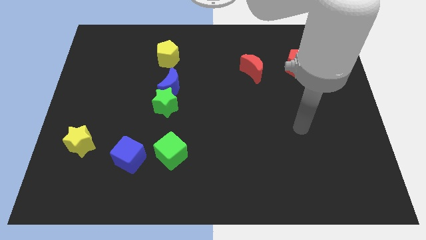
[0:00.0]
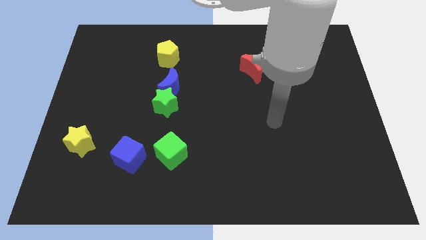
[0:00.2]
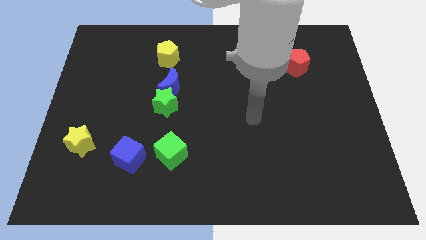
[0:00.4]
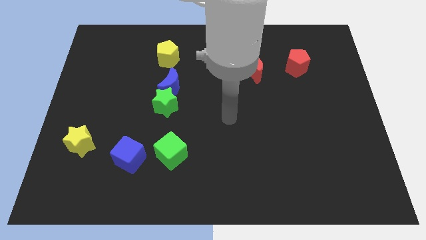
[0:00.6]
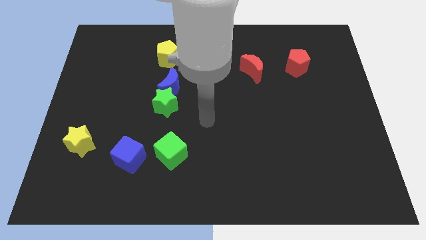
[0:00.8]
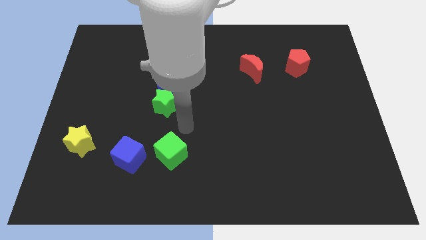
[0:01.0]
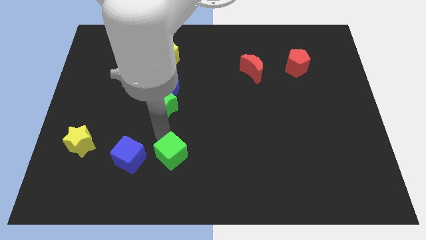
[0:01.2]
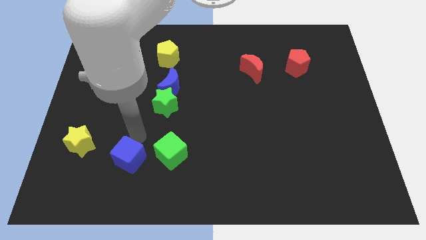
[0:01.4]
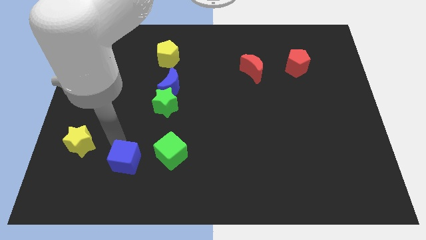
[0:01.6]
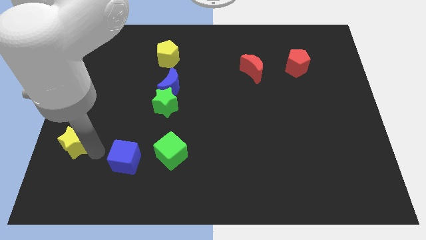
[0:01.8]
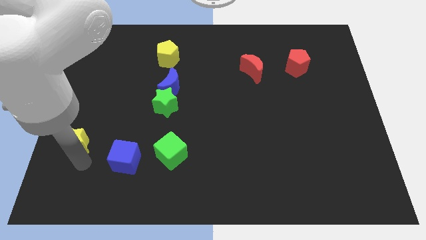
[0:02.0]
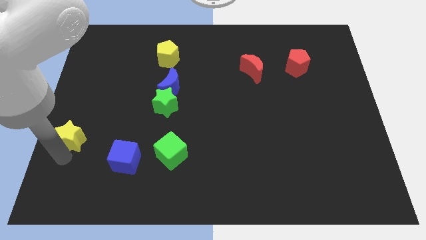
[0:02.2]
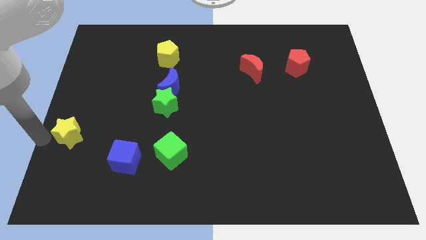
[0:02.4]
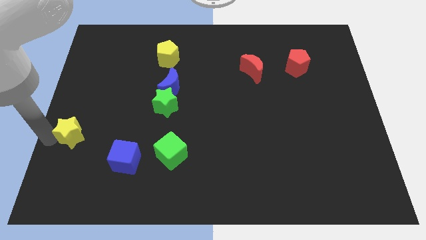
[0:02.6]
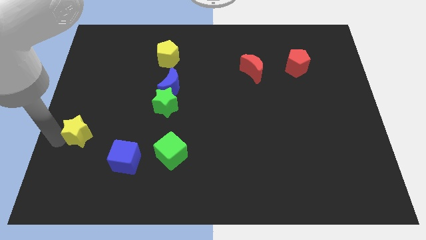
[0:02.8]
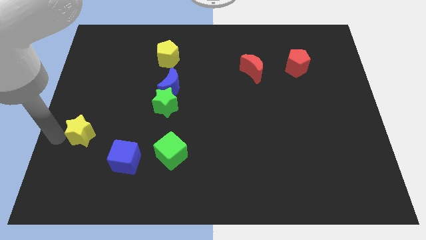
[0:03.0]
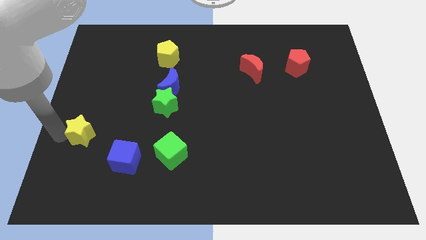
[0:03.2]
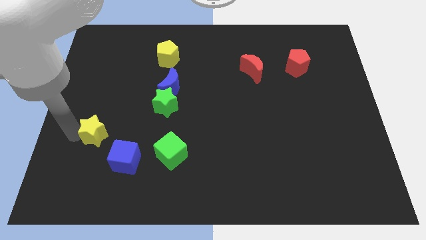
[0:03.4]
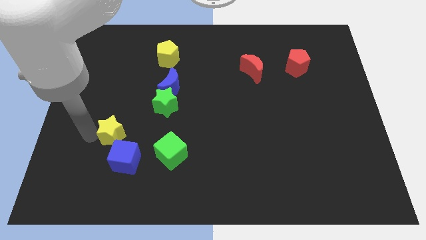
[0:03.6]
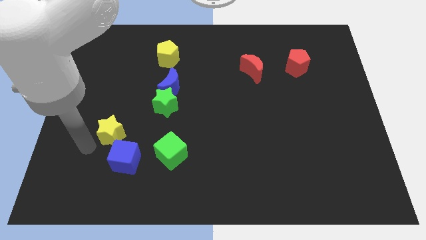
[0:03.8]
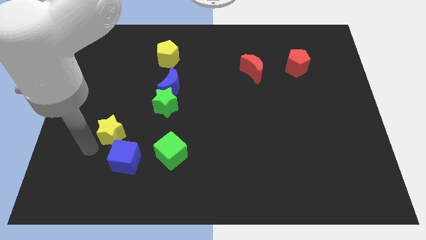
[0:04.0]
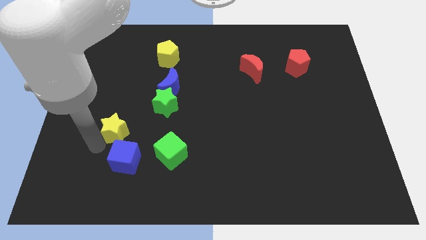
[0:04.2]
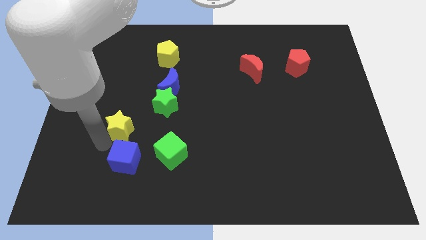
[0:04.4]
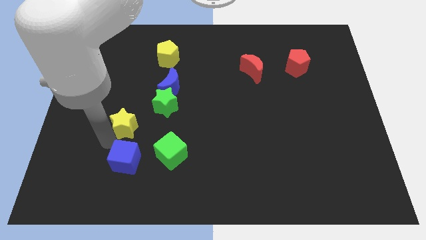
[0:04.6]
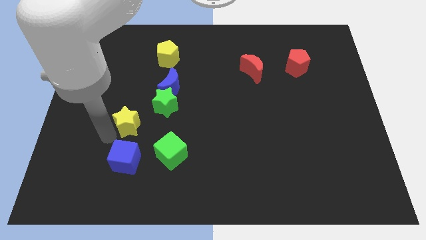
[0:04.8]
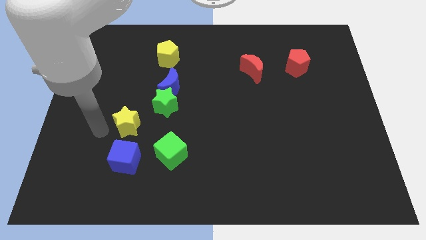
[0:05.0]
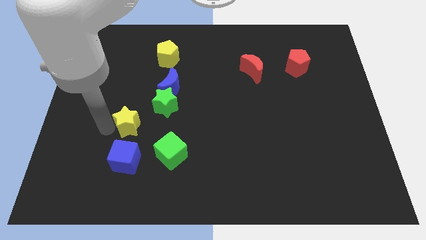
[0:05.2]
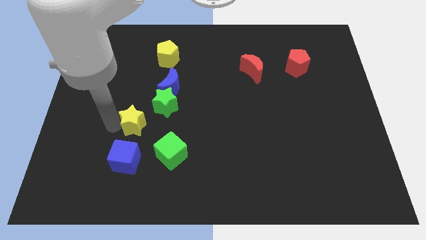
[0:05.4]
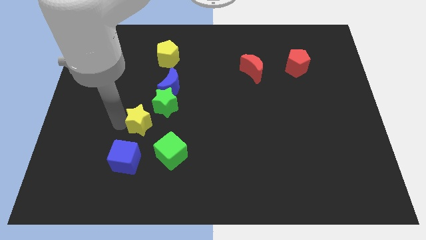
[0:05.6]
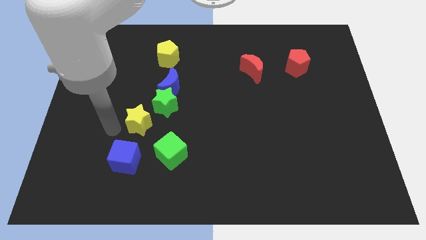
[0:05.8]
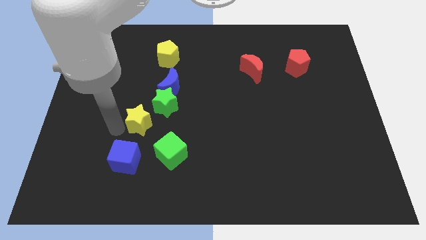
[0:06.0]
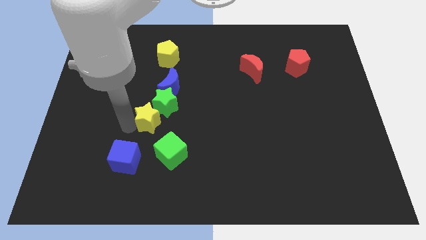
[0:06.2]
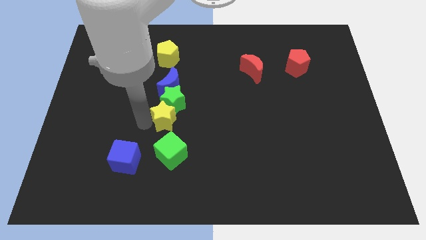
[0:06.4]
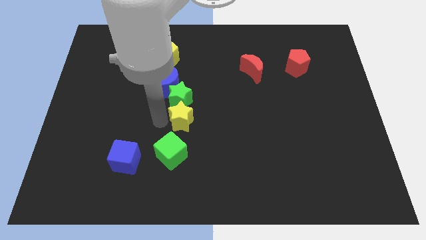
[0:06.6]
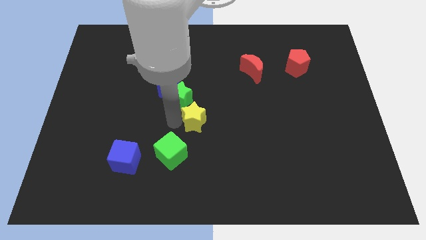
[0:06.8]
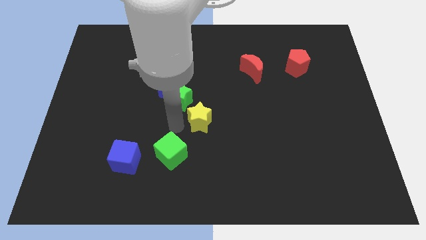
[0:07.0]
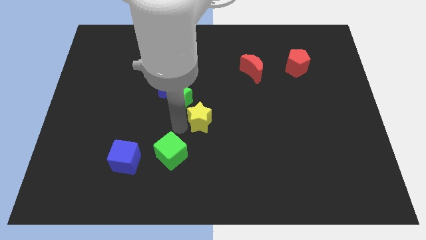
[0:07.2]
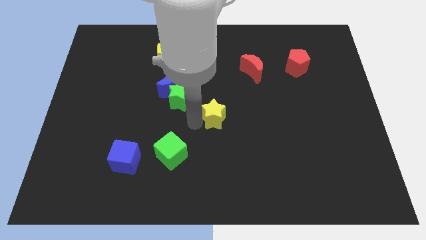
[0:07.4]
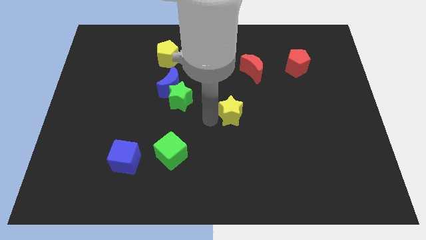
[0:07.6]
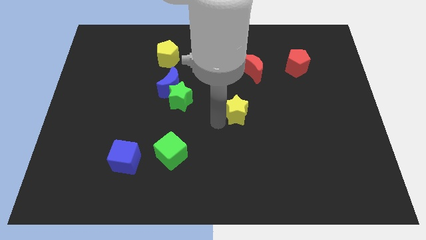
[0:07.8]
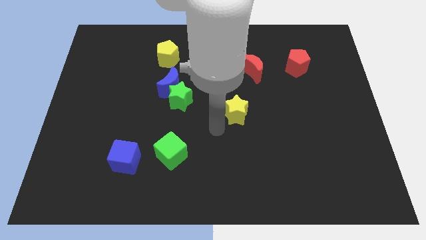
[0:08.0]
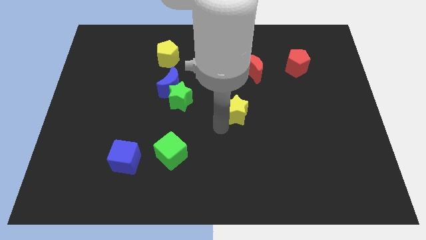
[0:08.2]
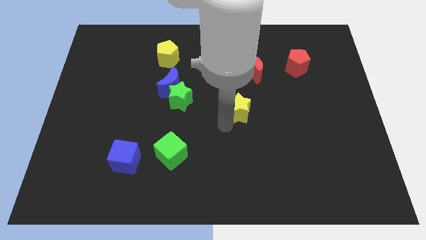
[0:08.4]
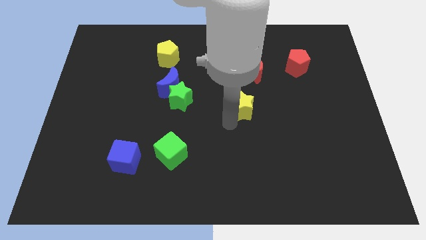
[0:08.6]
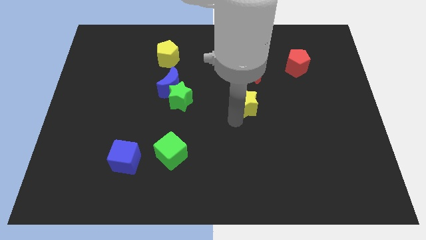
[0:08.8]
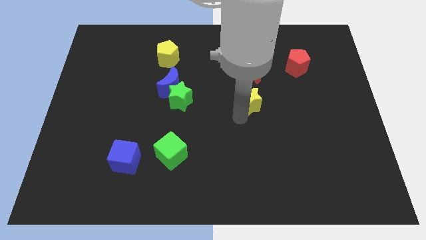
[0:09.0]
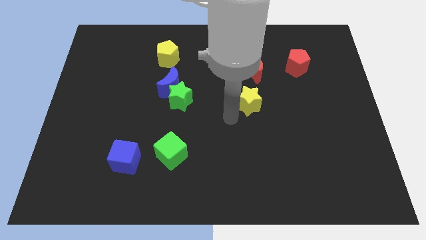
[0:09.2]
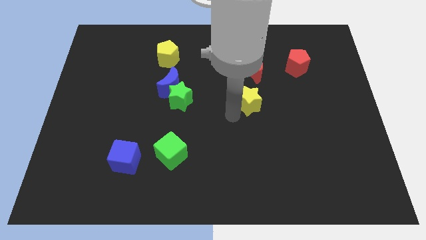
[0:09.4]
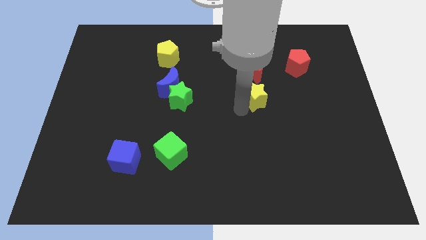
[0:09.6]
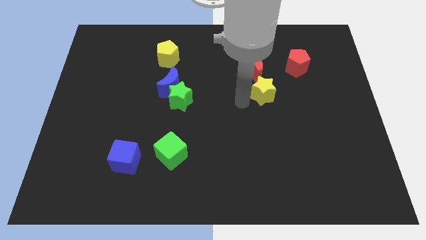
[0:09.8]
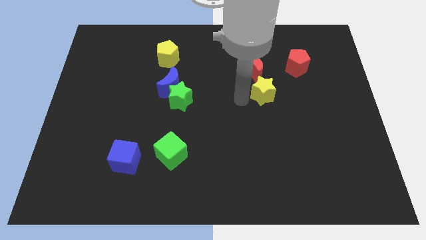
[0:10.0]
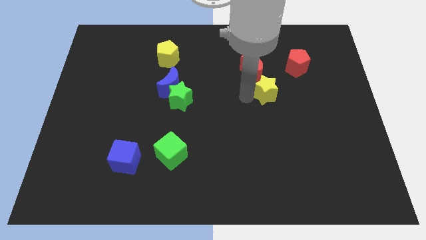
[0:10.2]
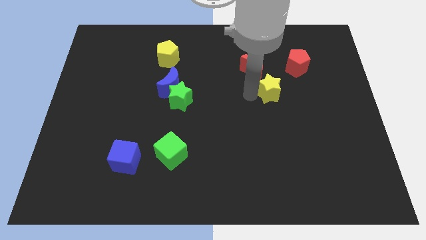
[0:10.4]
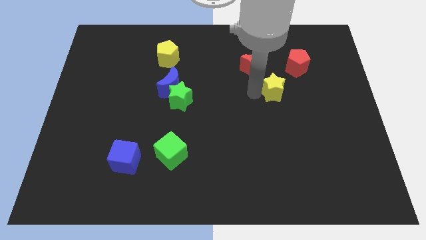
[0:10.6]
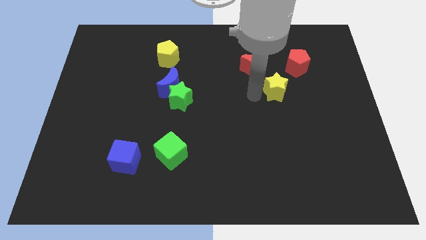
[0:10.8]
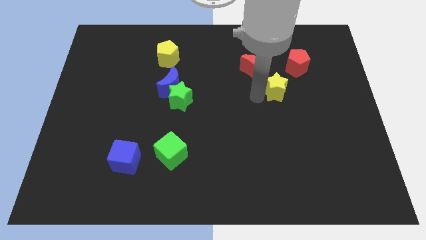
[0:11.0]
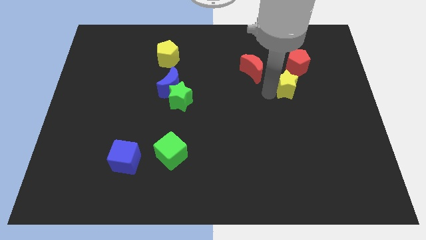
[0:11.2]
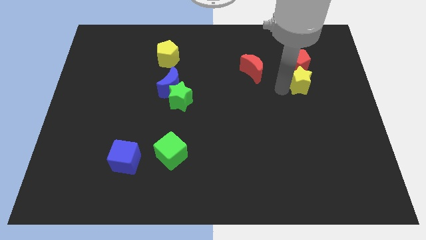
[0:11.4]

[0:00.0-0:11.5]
push the yellow star to the bottom right of the red pentagon

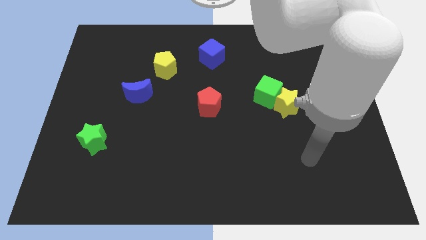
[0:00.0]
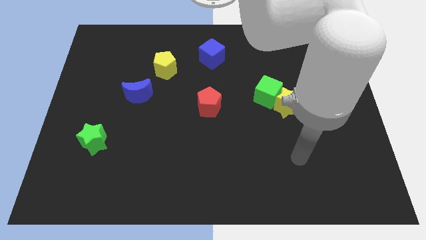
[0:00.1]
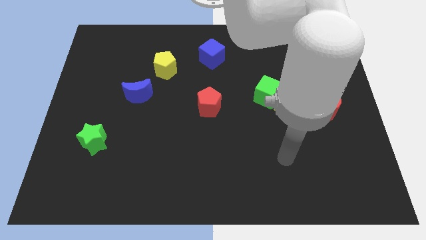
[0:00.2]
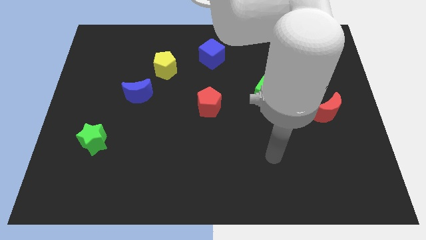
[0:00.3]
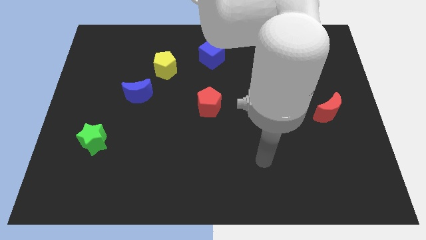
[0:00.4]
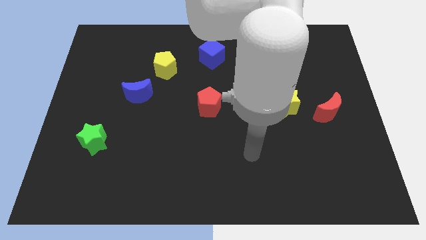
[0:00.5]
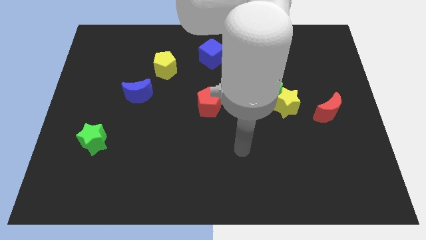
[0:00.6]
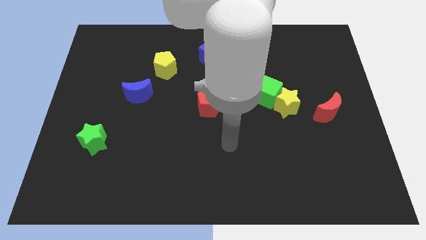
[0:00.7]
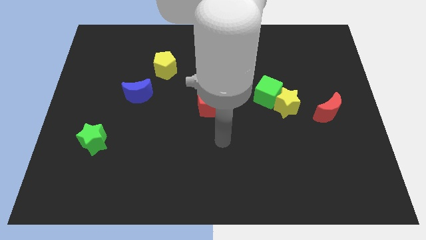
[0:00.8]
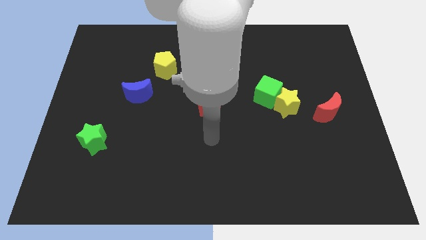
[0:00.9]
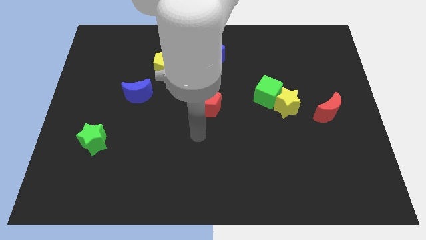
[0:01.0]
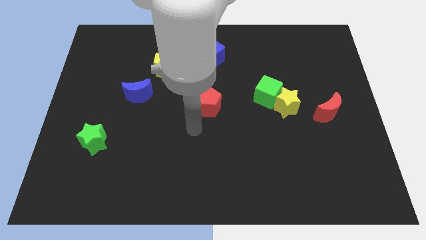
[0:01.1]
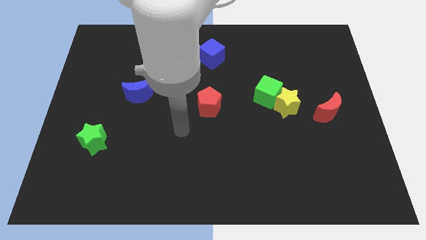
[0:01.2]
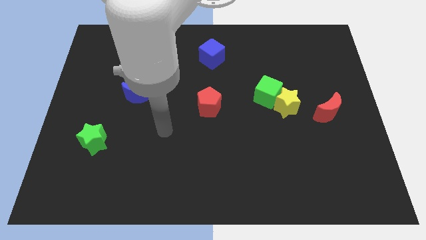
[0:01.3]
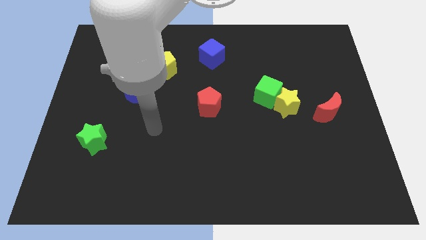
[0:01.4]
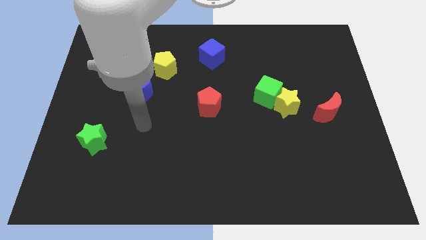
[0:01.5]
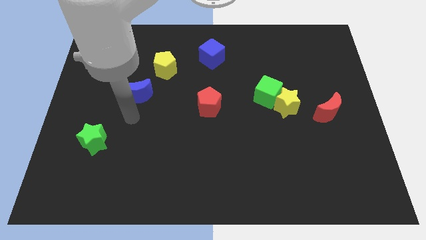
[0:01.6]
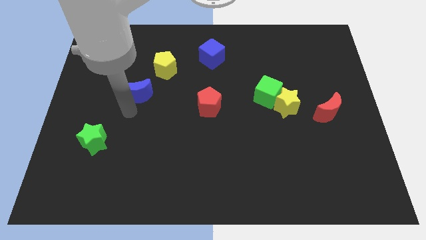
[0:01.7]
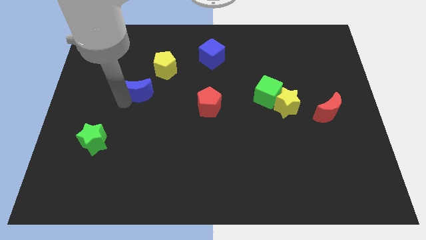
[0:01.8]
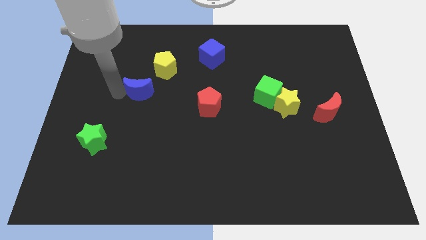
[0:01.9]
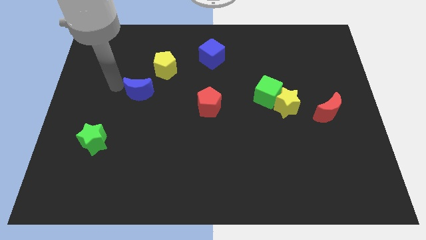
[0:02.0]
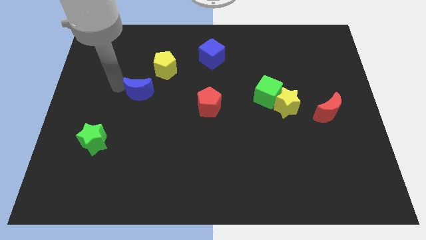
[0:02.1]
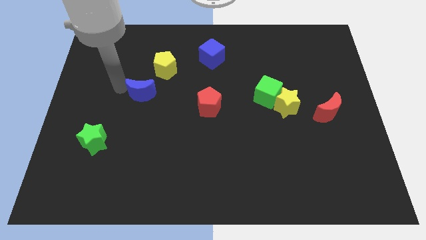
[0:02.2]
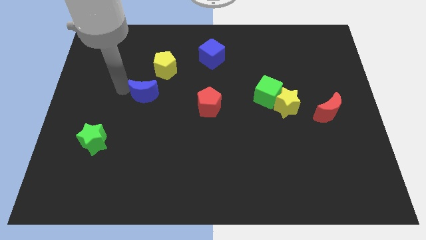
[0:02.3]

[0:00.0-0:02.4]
move the blue moon to the bottom of the yellow pentagon
